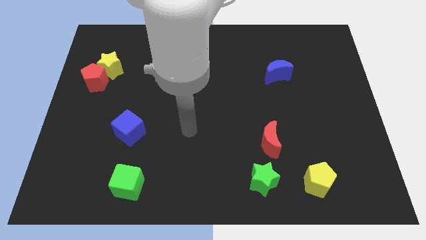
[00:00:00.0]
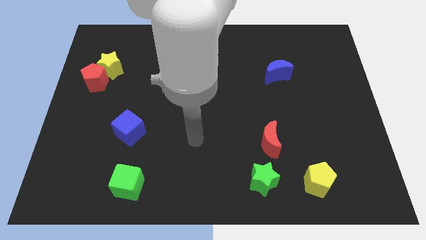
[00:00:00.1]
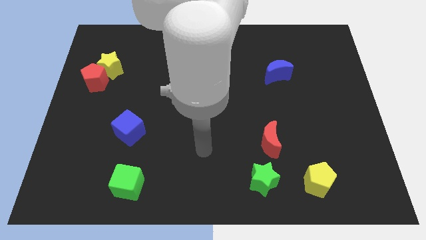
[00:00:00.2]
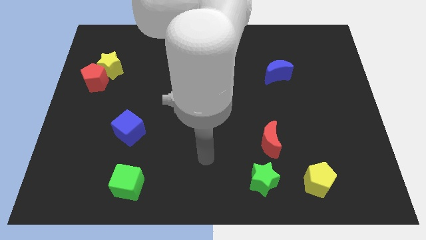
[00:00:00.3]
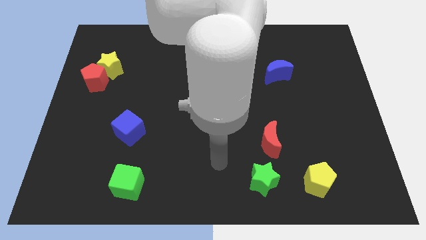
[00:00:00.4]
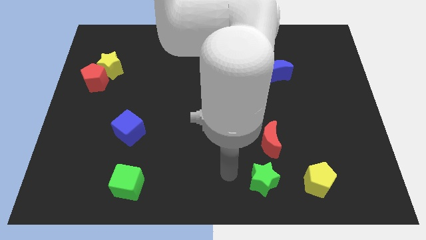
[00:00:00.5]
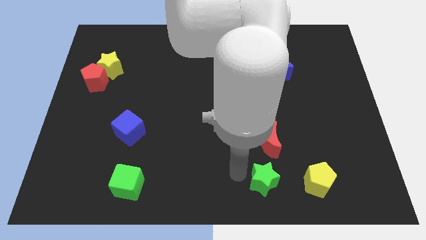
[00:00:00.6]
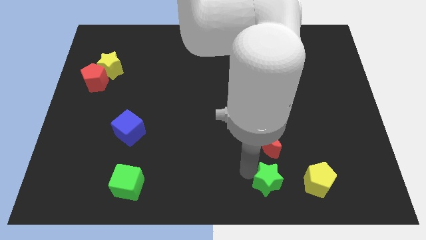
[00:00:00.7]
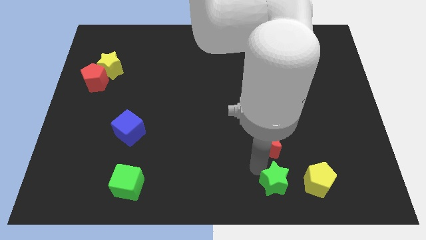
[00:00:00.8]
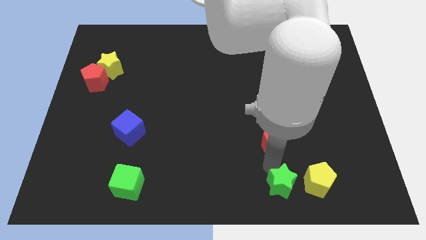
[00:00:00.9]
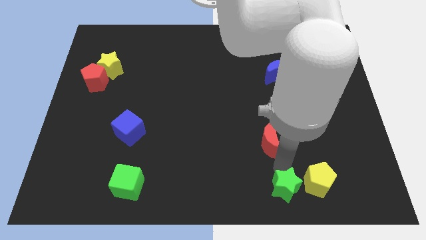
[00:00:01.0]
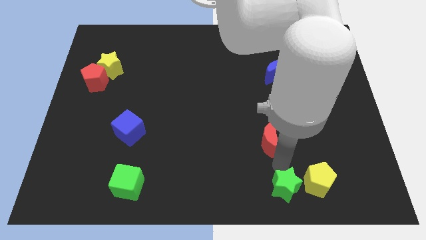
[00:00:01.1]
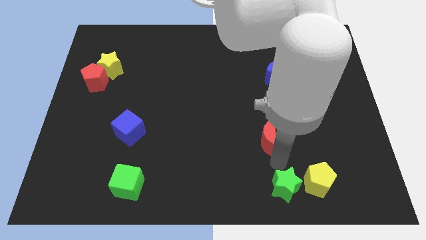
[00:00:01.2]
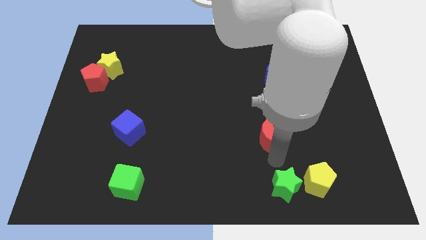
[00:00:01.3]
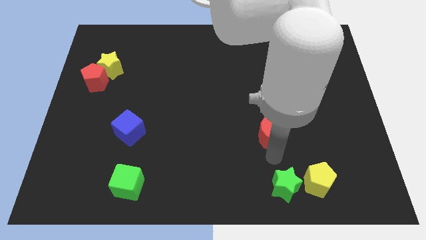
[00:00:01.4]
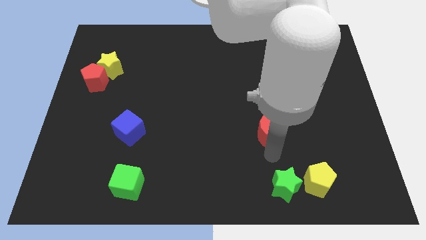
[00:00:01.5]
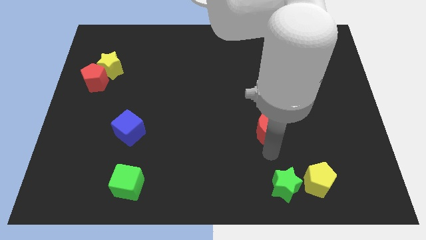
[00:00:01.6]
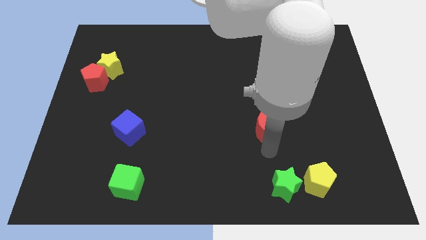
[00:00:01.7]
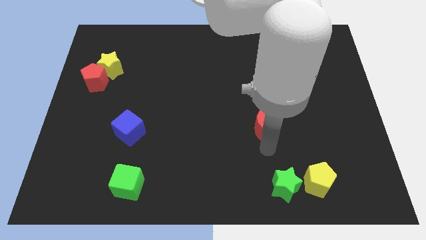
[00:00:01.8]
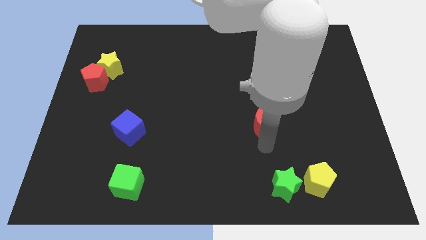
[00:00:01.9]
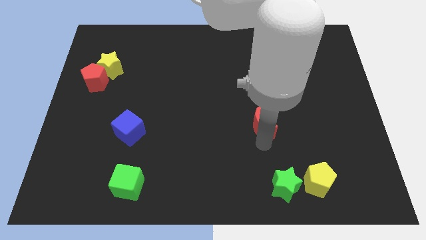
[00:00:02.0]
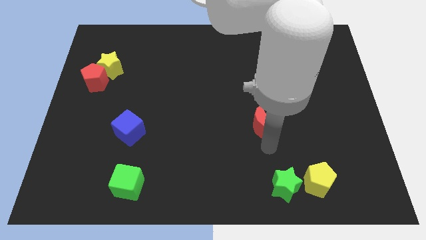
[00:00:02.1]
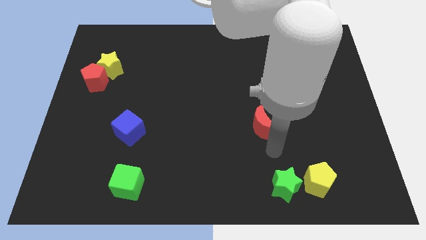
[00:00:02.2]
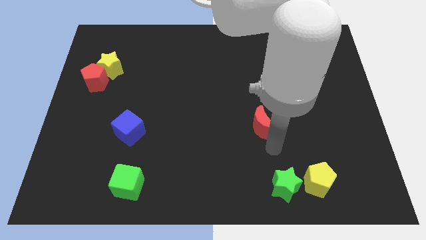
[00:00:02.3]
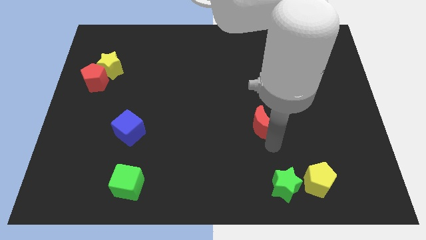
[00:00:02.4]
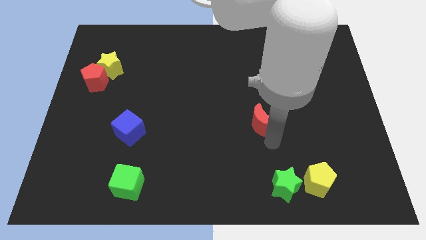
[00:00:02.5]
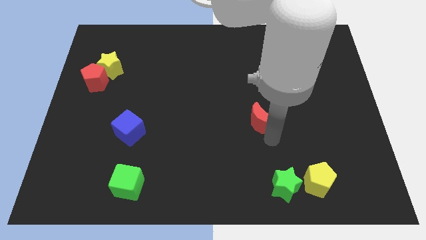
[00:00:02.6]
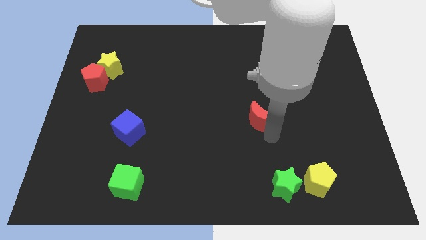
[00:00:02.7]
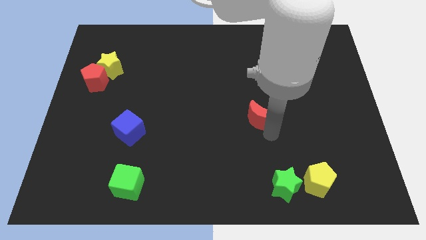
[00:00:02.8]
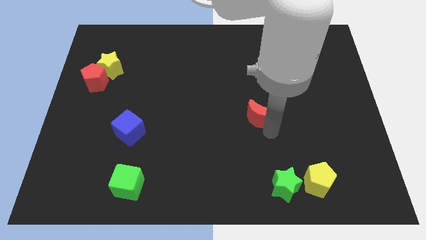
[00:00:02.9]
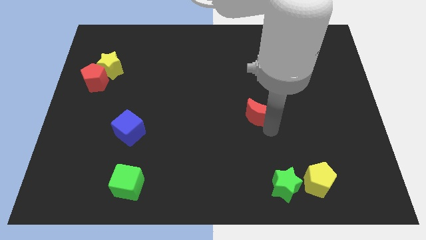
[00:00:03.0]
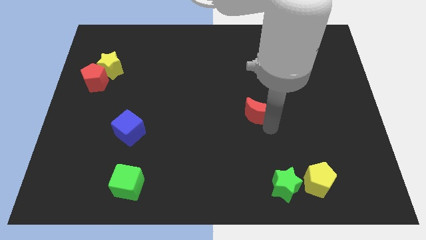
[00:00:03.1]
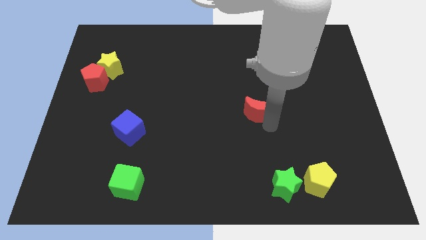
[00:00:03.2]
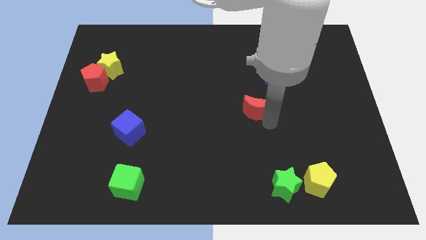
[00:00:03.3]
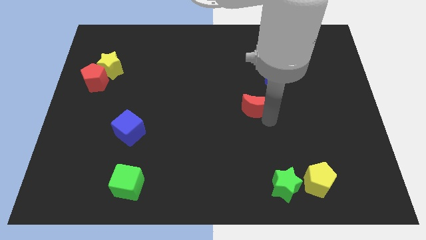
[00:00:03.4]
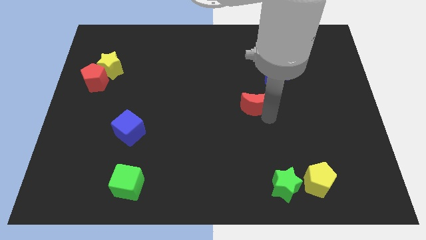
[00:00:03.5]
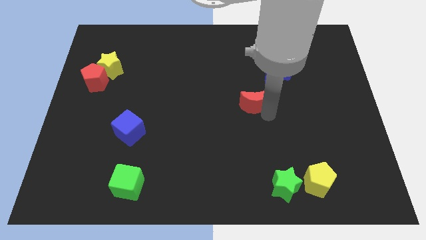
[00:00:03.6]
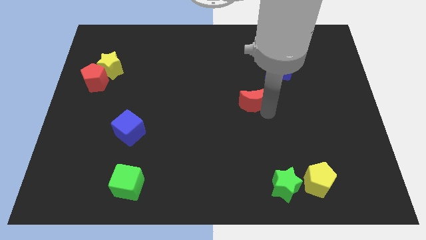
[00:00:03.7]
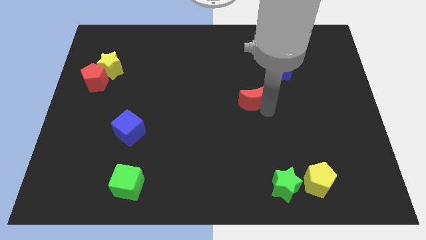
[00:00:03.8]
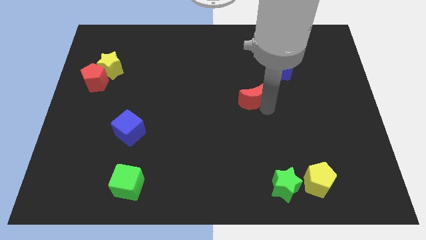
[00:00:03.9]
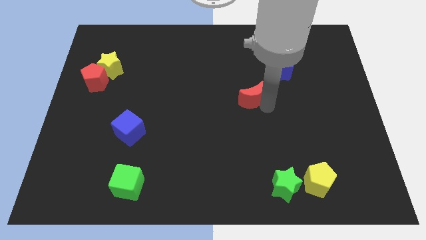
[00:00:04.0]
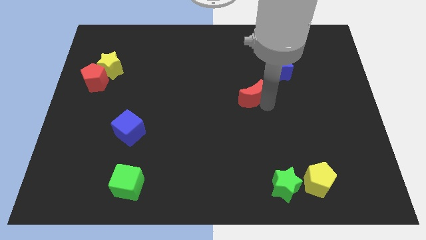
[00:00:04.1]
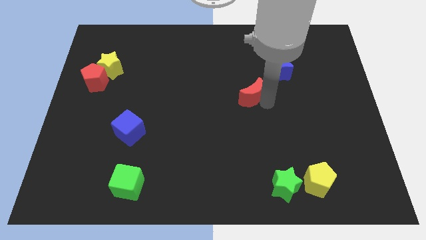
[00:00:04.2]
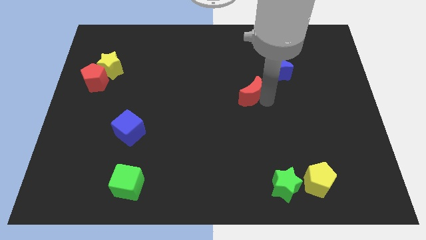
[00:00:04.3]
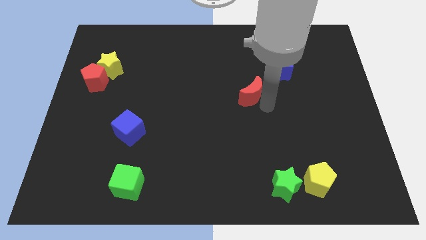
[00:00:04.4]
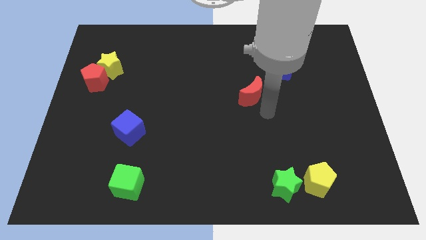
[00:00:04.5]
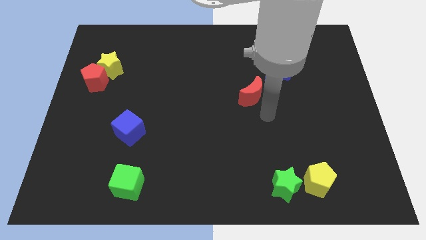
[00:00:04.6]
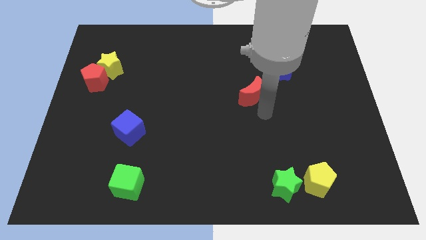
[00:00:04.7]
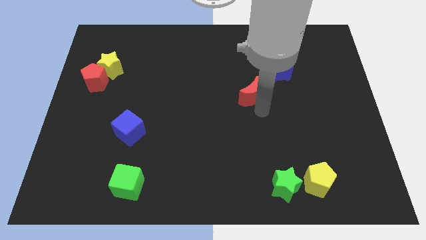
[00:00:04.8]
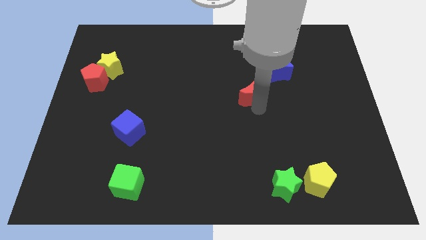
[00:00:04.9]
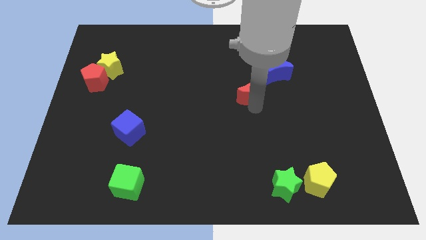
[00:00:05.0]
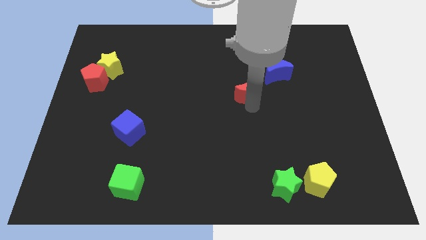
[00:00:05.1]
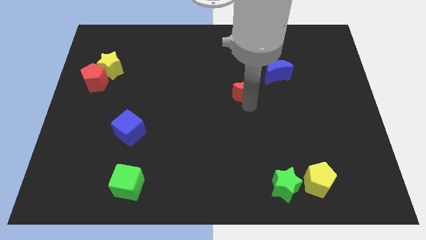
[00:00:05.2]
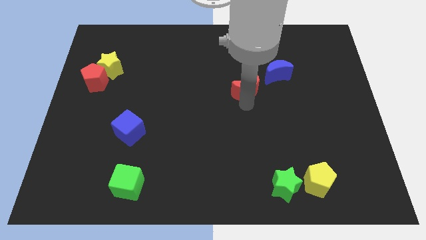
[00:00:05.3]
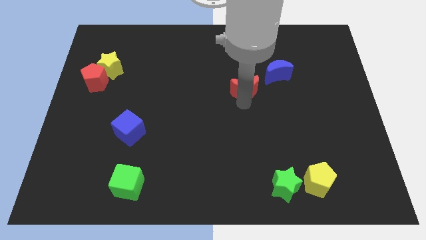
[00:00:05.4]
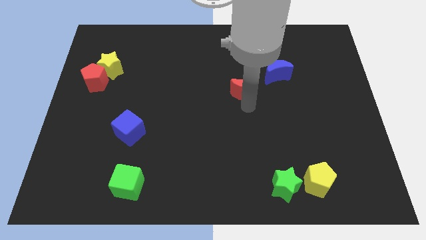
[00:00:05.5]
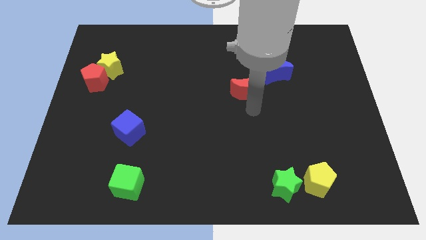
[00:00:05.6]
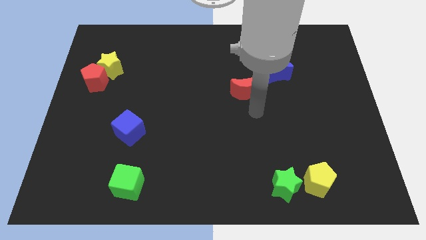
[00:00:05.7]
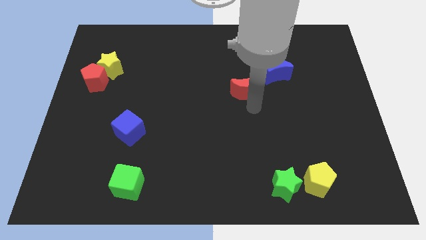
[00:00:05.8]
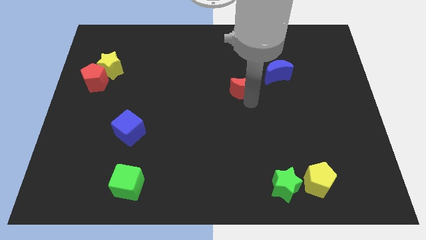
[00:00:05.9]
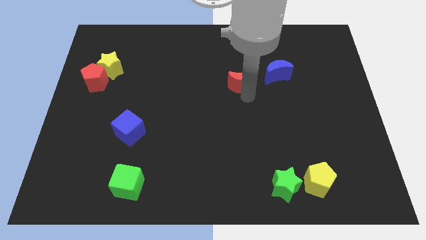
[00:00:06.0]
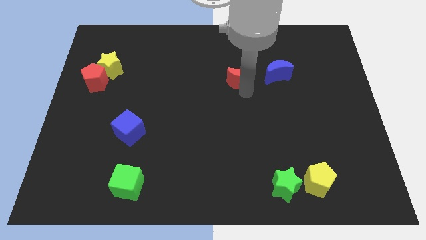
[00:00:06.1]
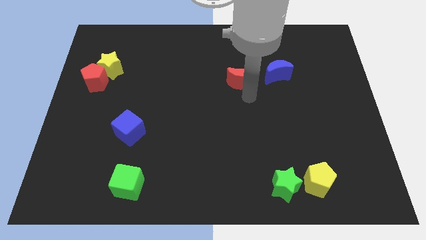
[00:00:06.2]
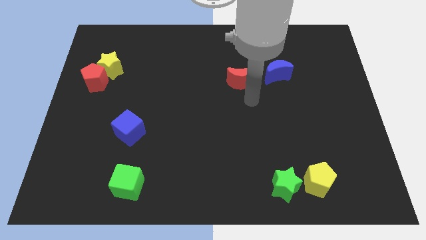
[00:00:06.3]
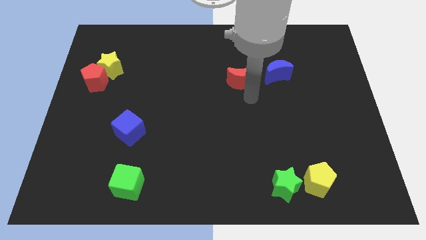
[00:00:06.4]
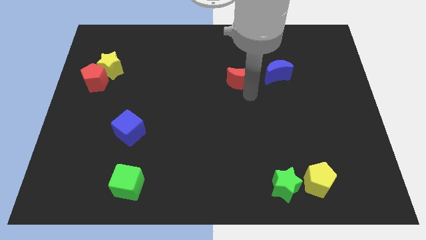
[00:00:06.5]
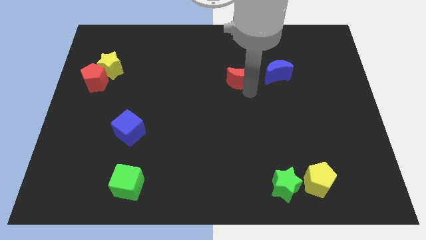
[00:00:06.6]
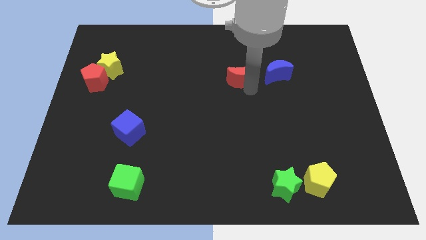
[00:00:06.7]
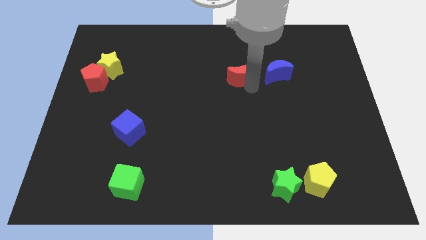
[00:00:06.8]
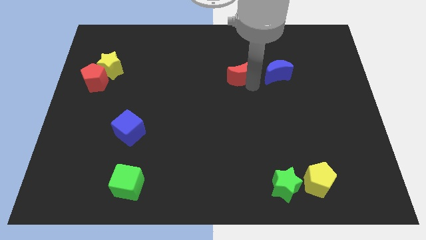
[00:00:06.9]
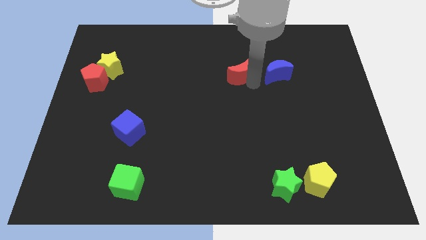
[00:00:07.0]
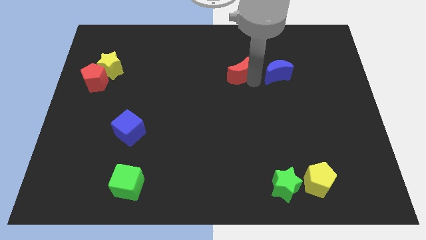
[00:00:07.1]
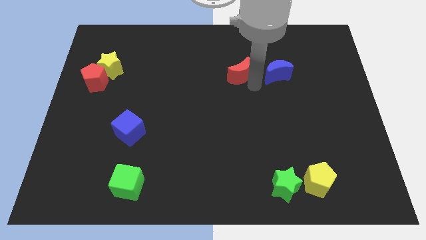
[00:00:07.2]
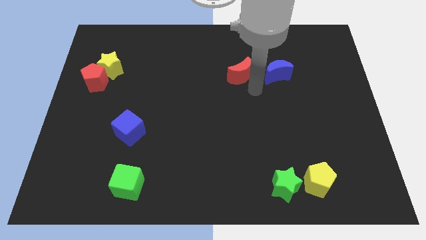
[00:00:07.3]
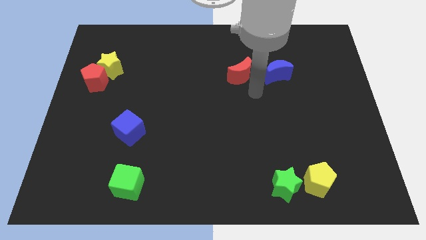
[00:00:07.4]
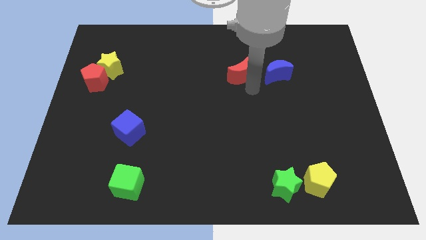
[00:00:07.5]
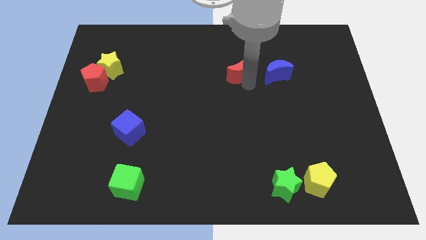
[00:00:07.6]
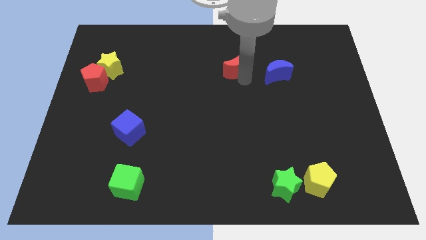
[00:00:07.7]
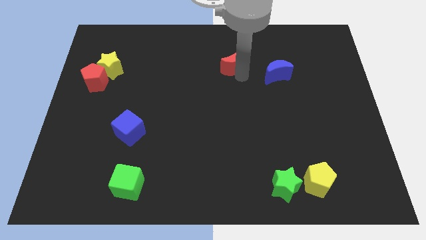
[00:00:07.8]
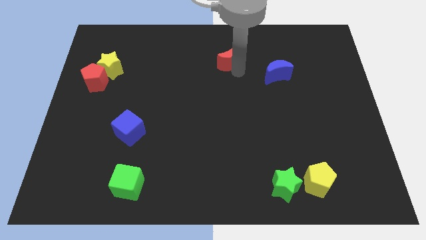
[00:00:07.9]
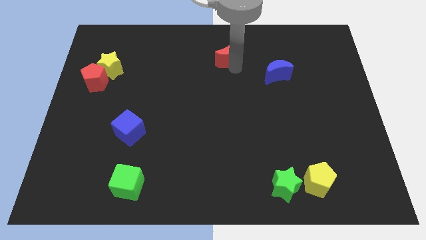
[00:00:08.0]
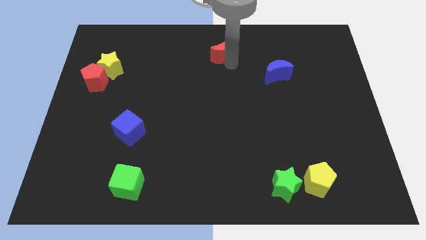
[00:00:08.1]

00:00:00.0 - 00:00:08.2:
slide the red moon to the towards your base
